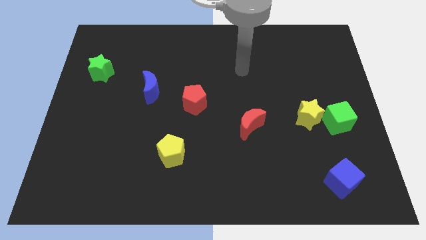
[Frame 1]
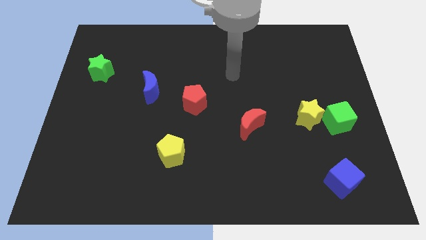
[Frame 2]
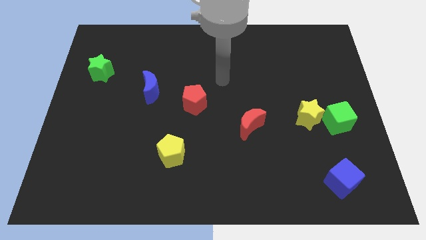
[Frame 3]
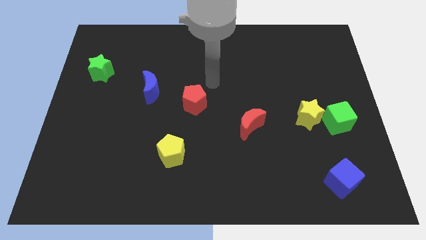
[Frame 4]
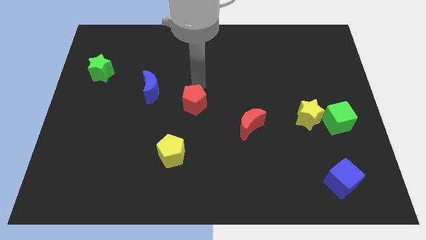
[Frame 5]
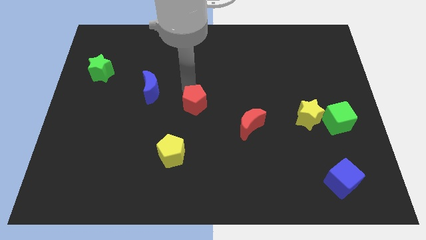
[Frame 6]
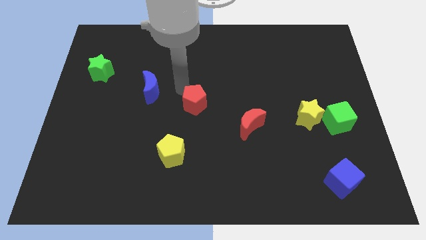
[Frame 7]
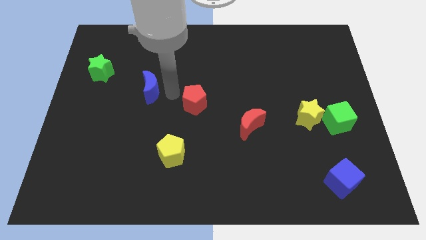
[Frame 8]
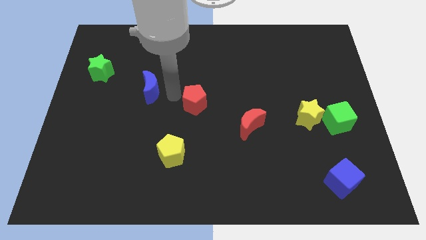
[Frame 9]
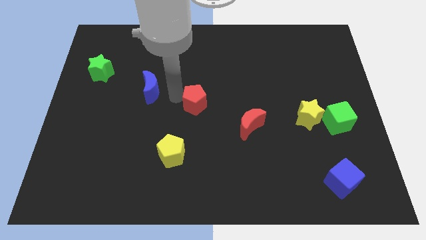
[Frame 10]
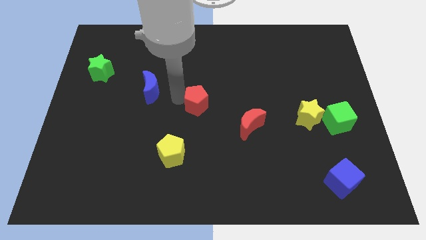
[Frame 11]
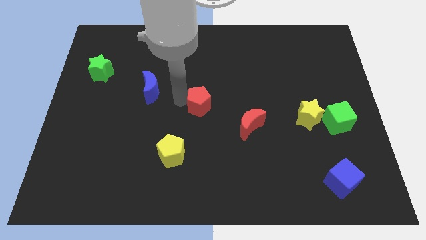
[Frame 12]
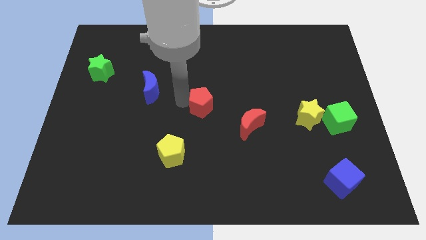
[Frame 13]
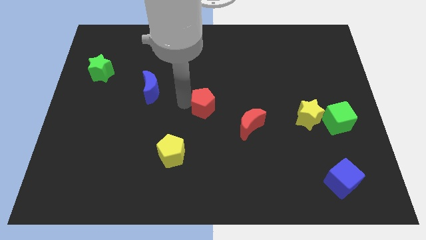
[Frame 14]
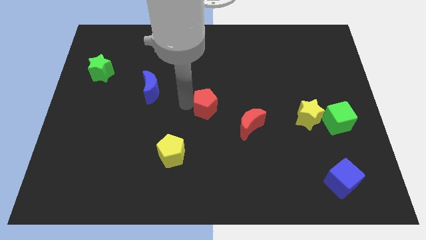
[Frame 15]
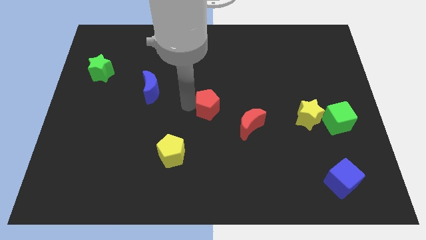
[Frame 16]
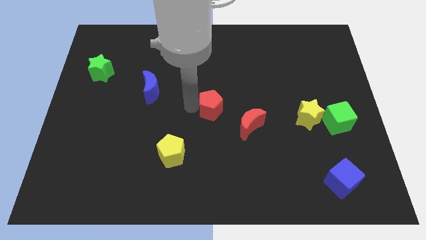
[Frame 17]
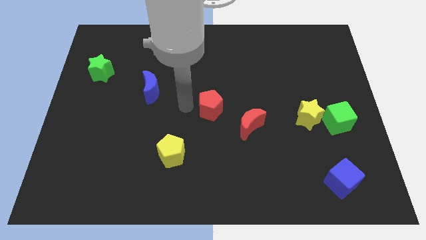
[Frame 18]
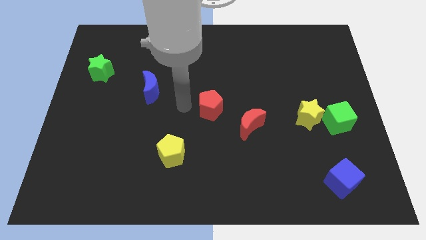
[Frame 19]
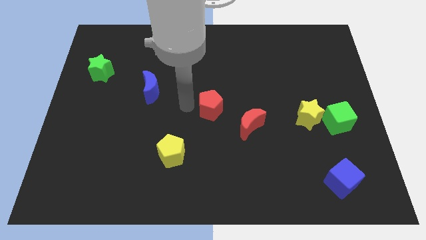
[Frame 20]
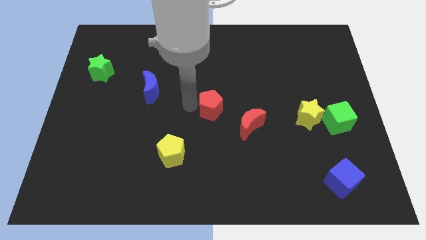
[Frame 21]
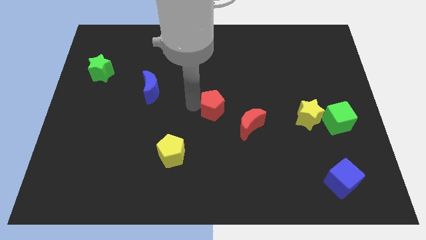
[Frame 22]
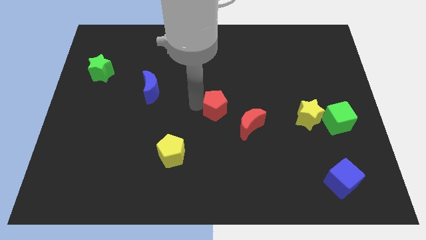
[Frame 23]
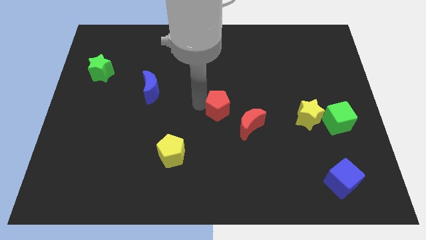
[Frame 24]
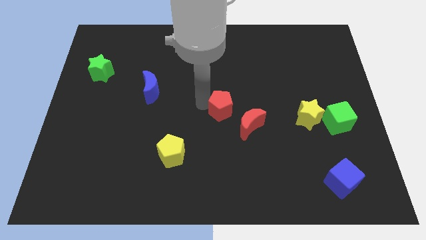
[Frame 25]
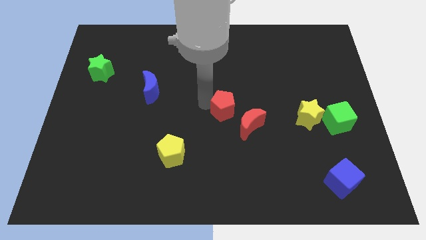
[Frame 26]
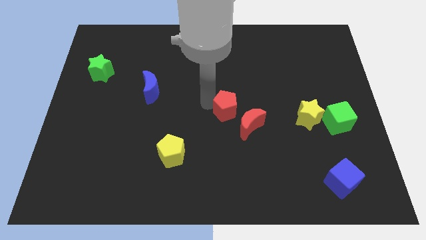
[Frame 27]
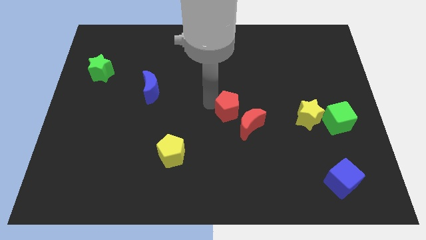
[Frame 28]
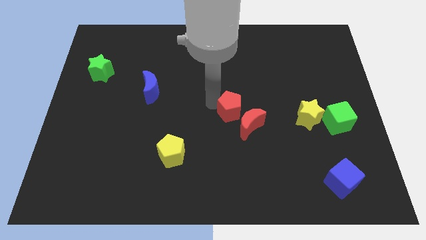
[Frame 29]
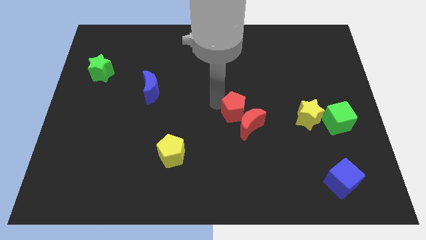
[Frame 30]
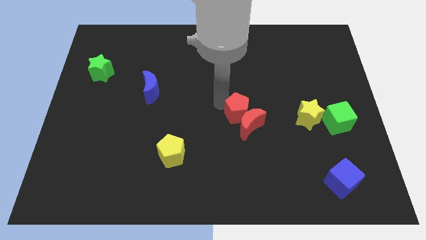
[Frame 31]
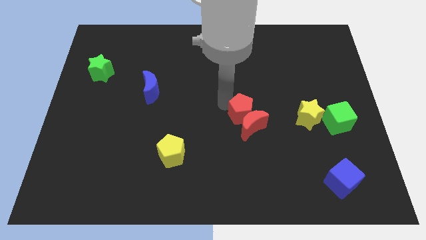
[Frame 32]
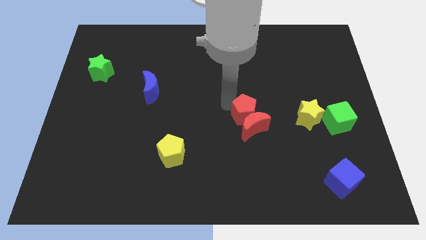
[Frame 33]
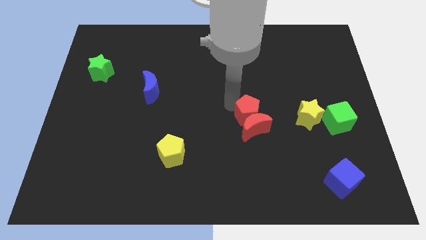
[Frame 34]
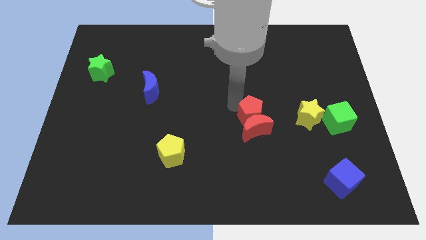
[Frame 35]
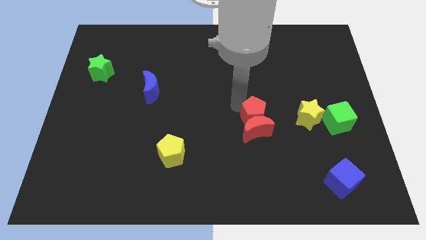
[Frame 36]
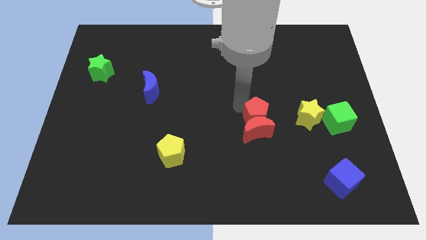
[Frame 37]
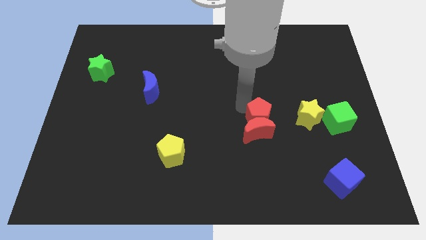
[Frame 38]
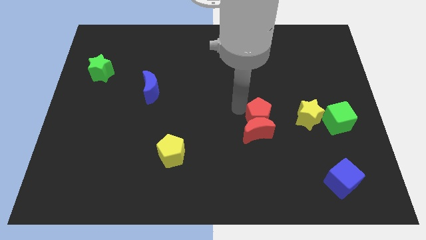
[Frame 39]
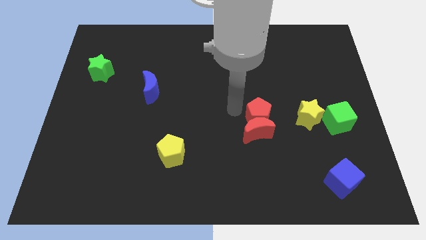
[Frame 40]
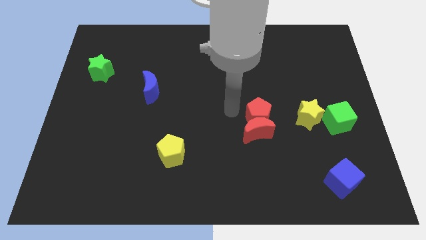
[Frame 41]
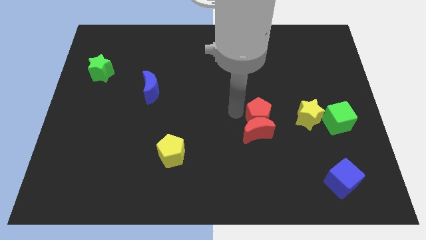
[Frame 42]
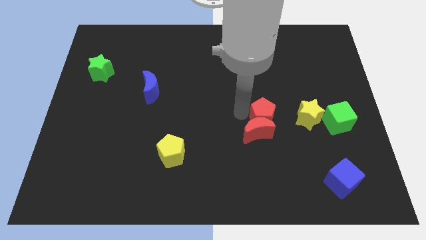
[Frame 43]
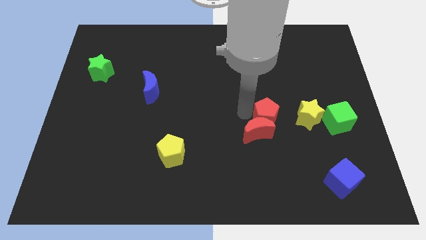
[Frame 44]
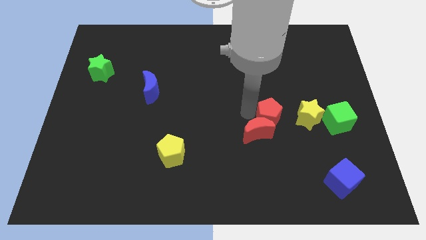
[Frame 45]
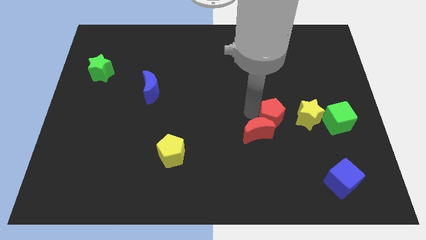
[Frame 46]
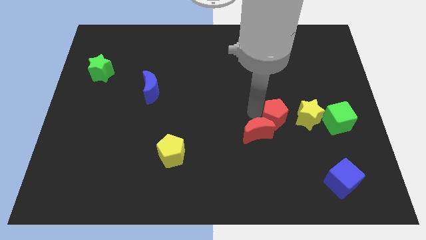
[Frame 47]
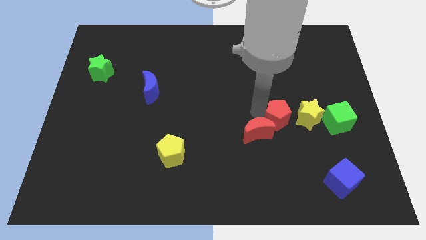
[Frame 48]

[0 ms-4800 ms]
push the red pentagon to the bottom left side of the yellow star

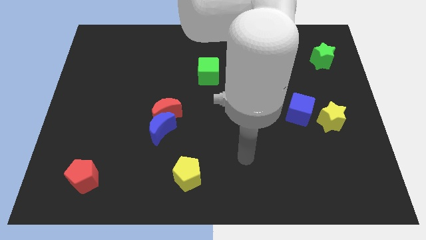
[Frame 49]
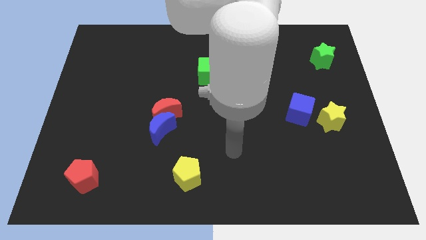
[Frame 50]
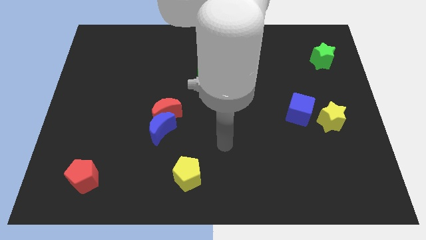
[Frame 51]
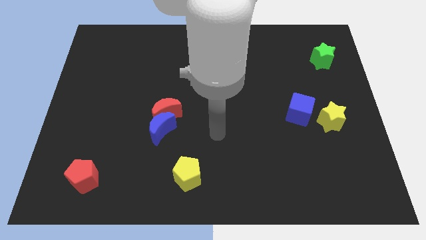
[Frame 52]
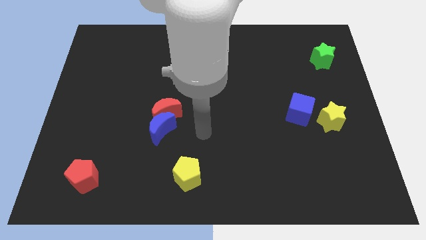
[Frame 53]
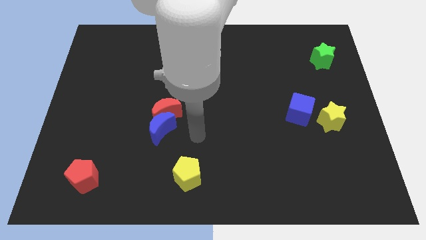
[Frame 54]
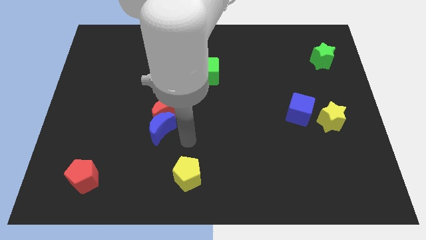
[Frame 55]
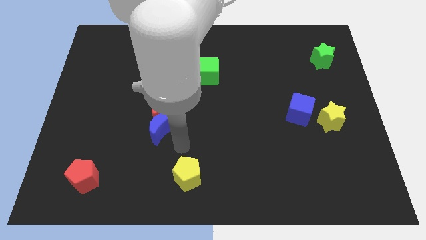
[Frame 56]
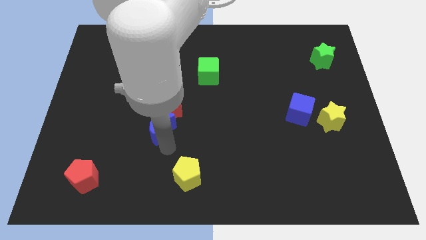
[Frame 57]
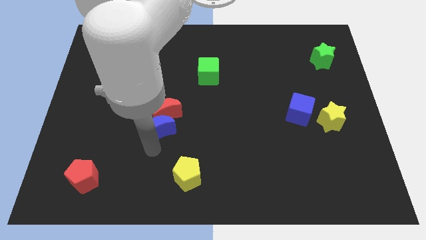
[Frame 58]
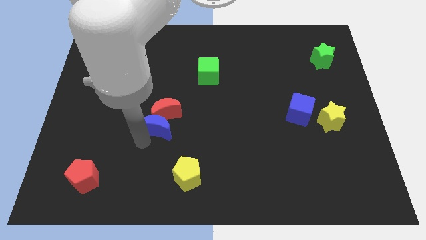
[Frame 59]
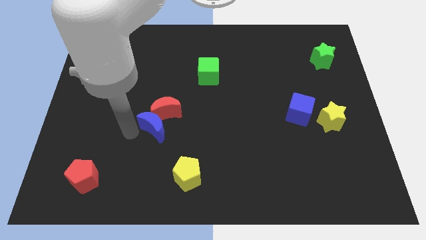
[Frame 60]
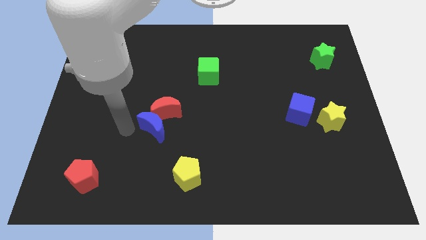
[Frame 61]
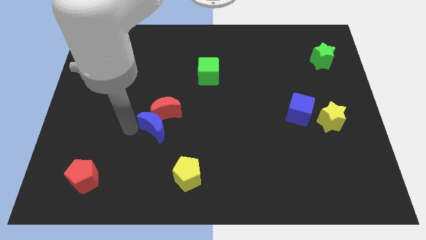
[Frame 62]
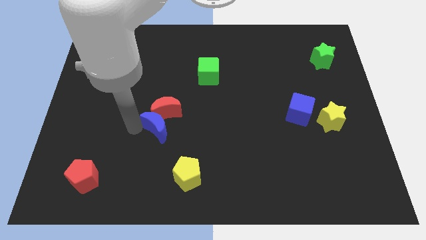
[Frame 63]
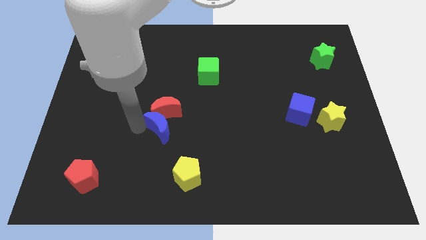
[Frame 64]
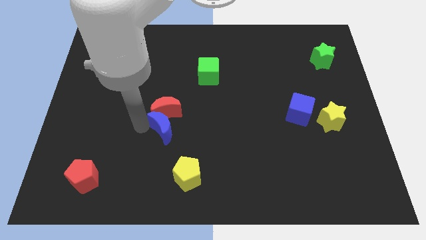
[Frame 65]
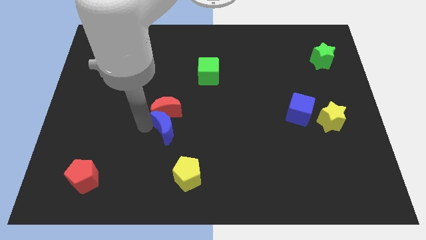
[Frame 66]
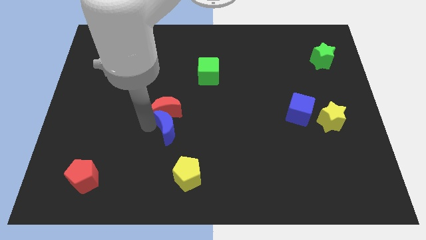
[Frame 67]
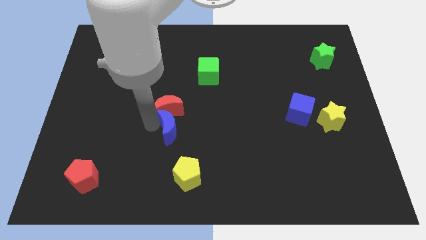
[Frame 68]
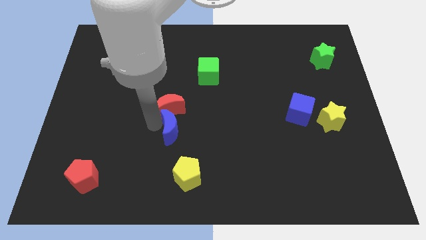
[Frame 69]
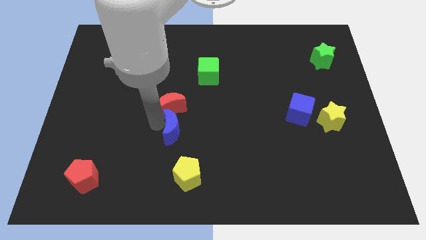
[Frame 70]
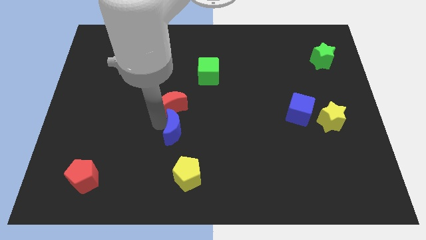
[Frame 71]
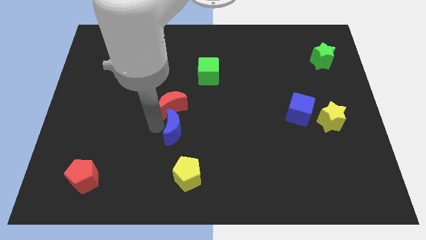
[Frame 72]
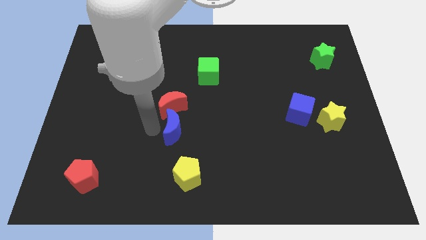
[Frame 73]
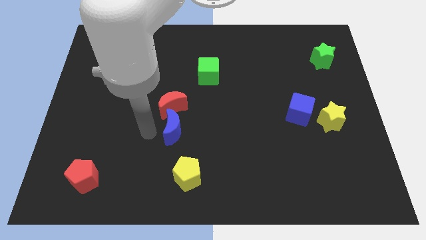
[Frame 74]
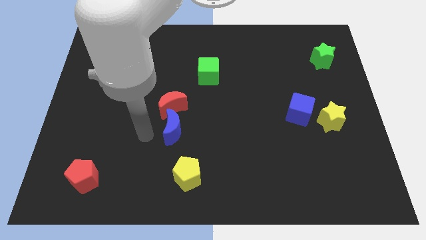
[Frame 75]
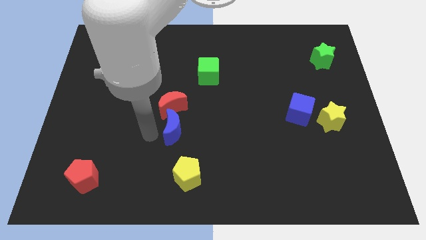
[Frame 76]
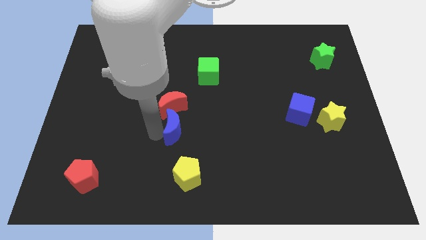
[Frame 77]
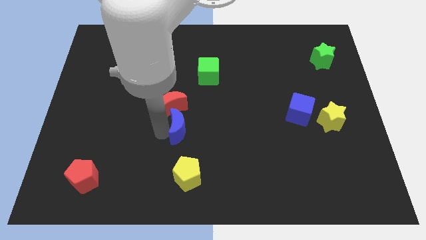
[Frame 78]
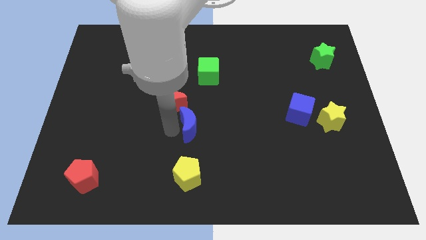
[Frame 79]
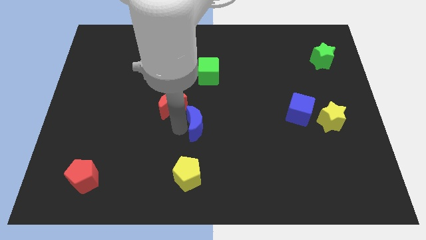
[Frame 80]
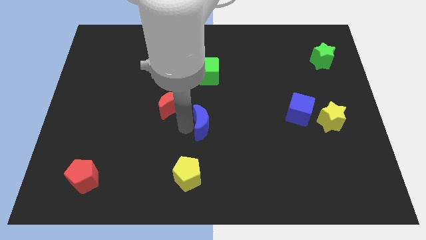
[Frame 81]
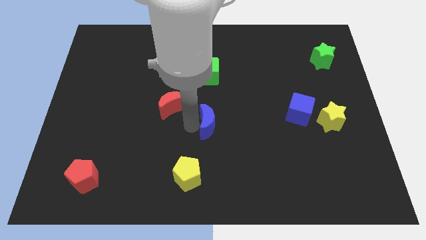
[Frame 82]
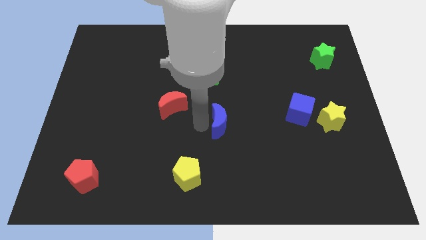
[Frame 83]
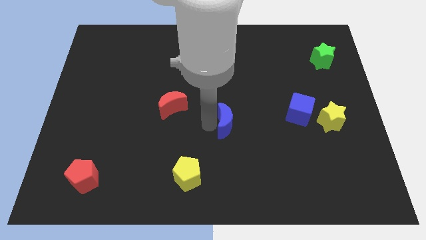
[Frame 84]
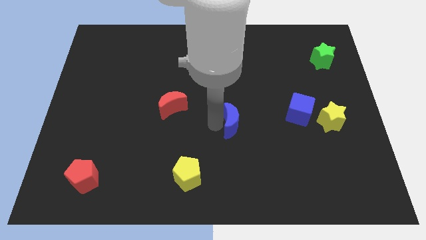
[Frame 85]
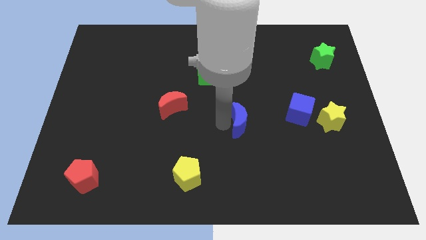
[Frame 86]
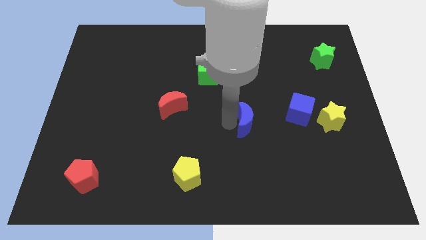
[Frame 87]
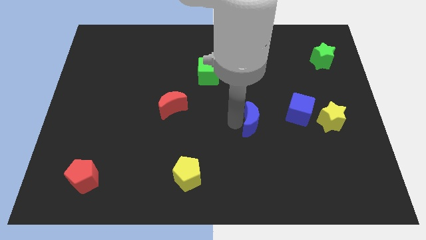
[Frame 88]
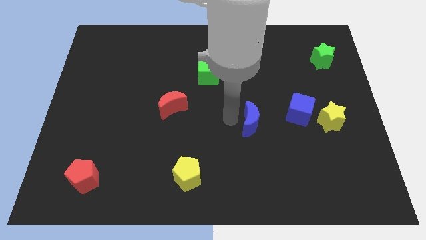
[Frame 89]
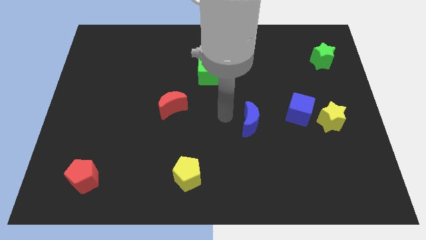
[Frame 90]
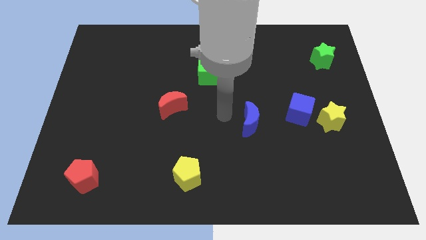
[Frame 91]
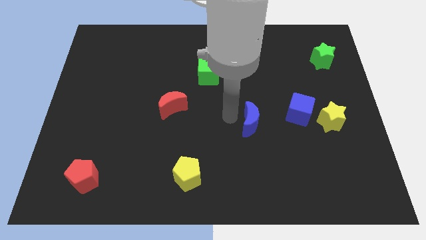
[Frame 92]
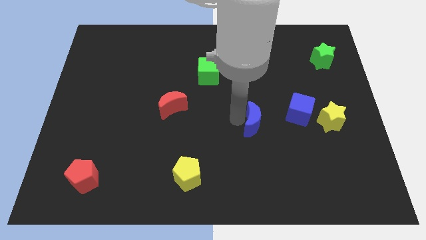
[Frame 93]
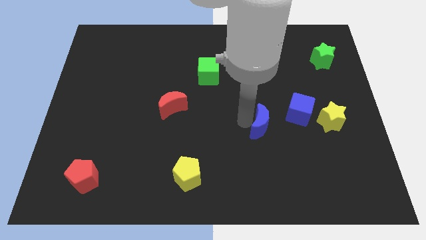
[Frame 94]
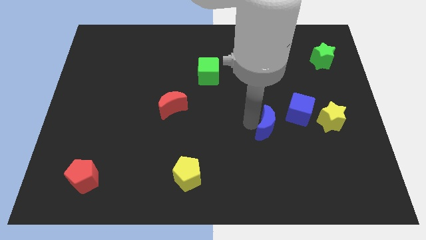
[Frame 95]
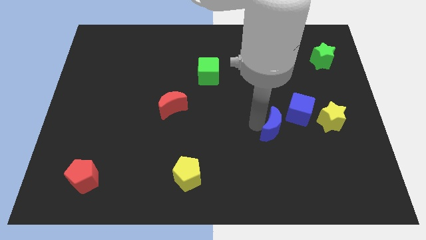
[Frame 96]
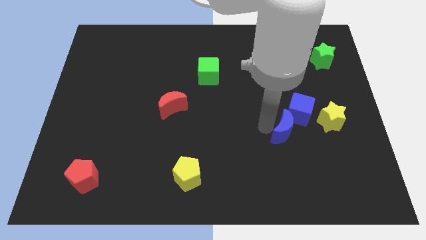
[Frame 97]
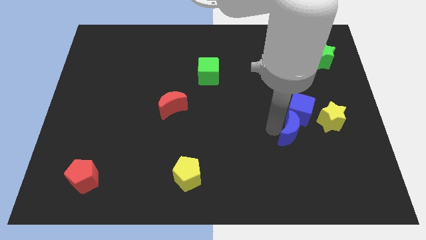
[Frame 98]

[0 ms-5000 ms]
push the blue moon to the bottom left side of the yellow star
